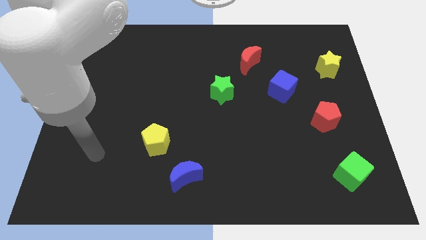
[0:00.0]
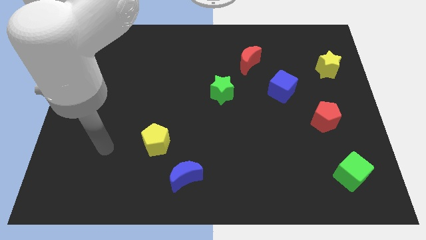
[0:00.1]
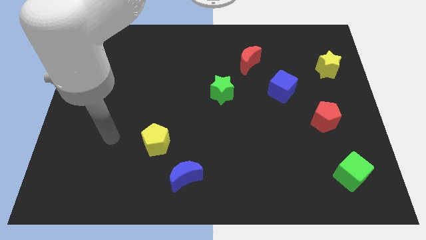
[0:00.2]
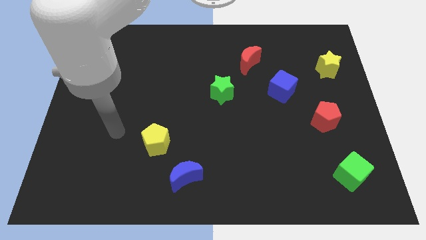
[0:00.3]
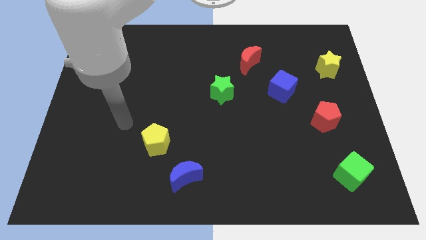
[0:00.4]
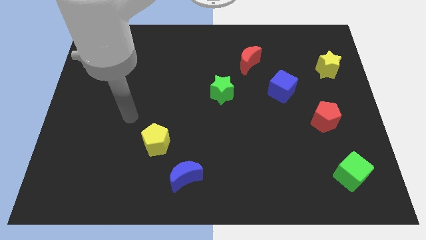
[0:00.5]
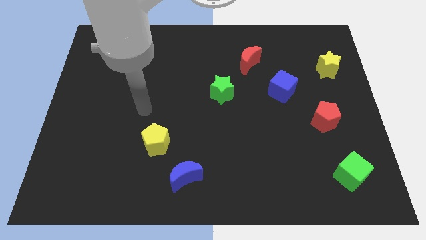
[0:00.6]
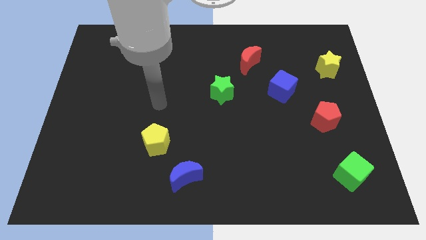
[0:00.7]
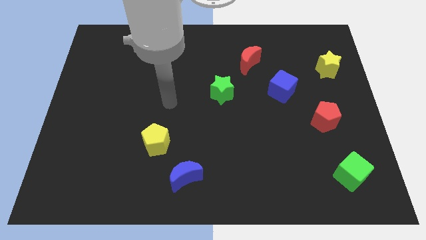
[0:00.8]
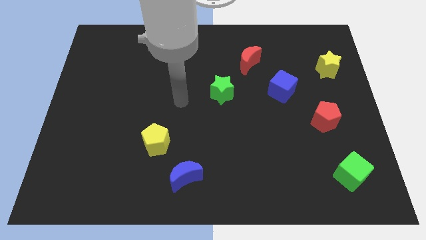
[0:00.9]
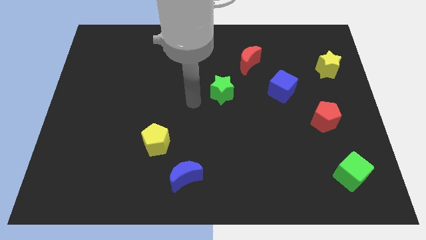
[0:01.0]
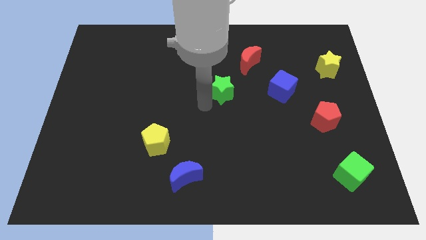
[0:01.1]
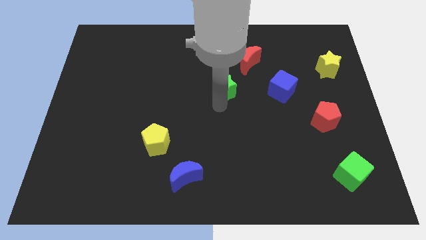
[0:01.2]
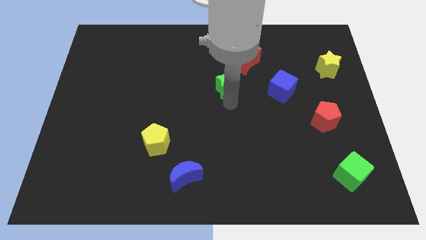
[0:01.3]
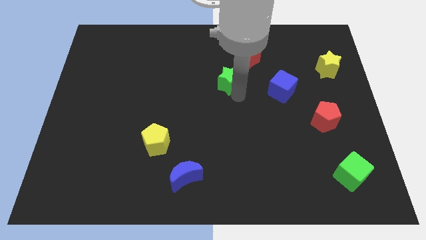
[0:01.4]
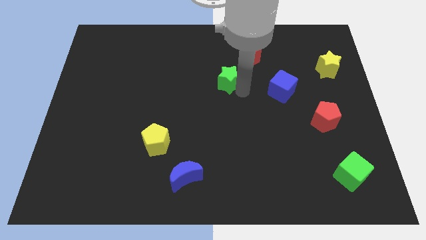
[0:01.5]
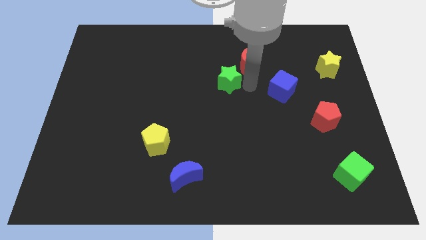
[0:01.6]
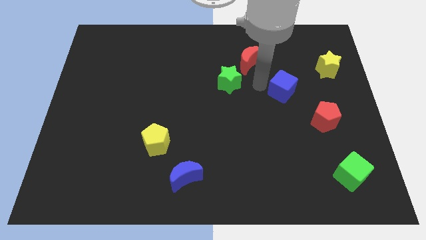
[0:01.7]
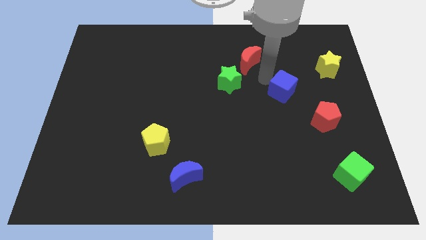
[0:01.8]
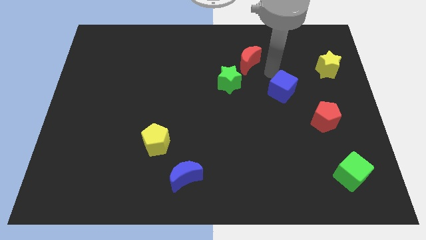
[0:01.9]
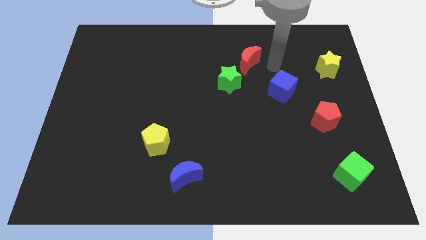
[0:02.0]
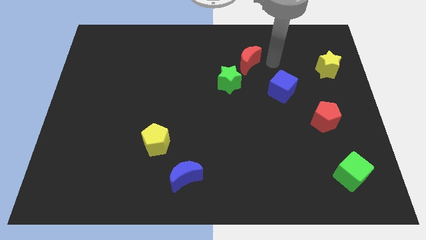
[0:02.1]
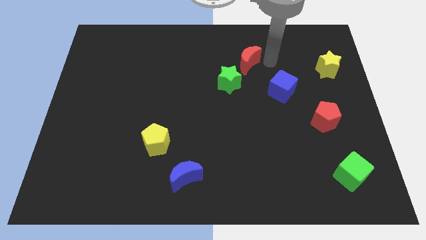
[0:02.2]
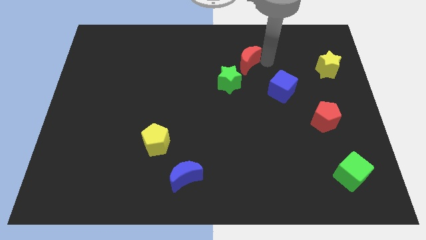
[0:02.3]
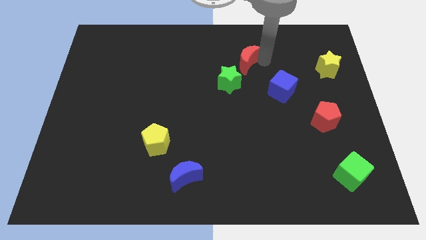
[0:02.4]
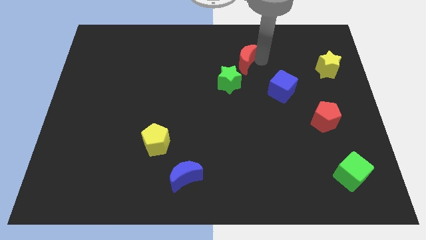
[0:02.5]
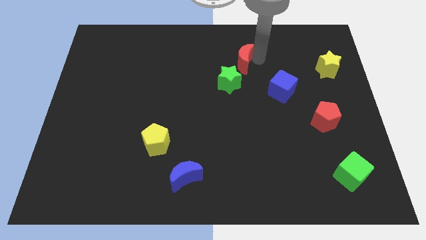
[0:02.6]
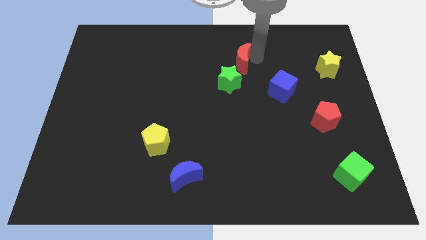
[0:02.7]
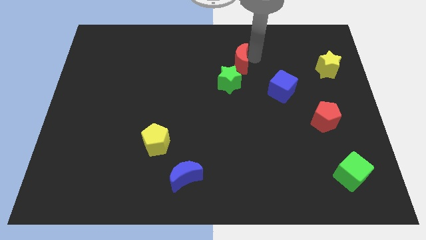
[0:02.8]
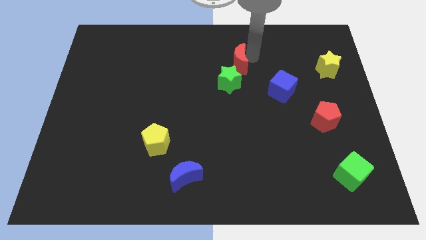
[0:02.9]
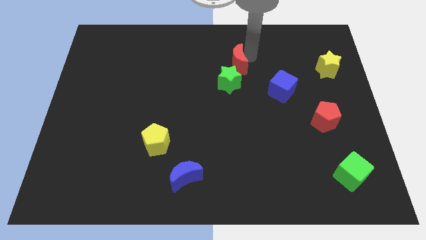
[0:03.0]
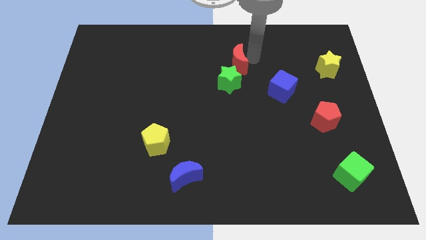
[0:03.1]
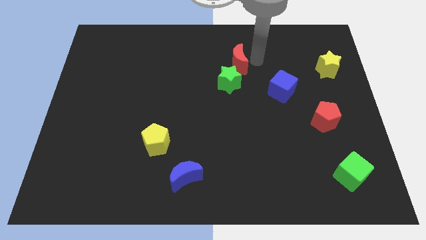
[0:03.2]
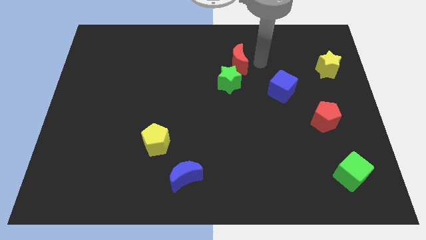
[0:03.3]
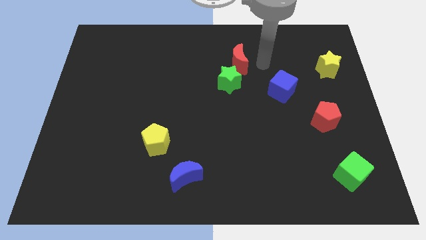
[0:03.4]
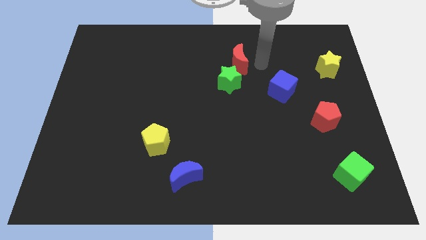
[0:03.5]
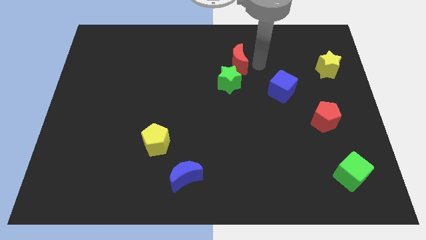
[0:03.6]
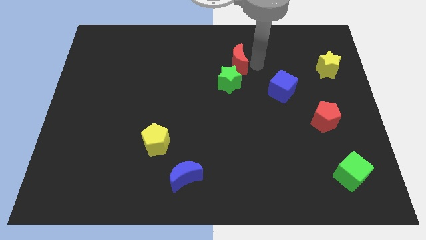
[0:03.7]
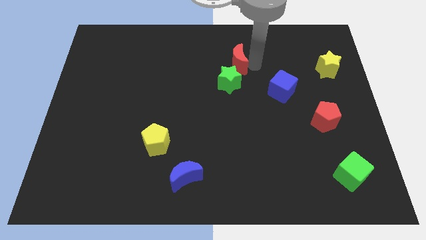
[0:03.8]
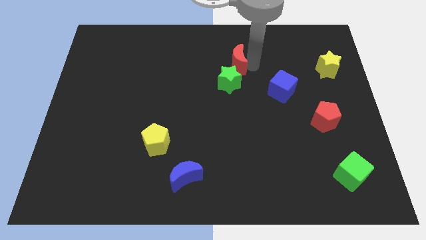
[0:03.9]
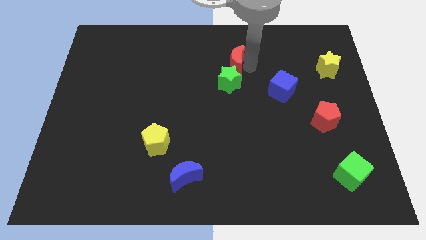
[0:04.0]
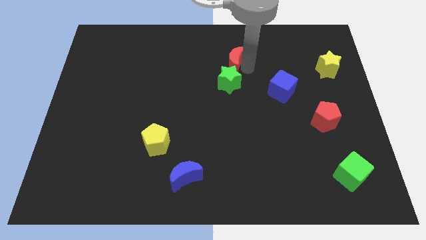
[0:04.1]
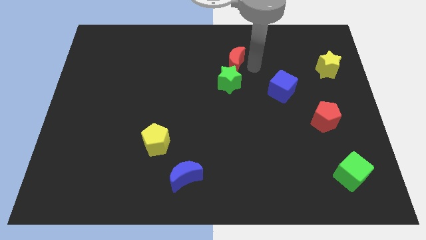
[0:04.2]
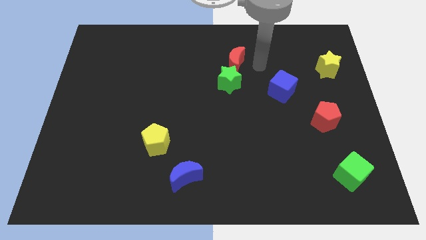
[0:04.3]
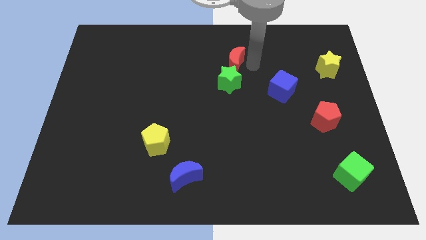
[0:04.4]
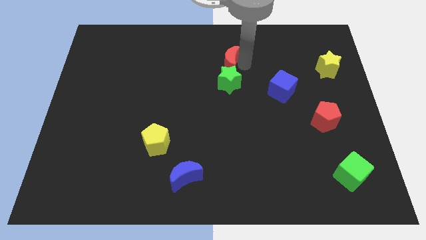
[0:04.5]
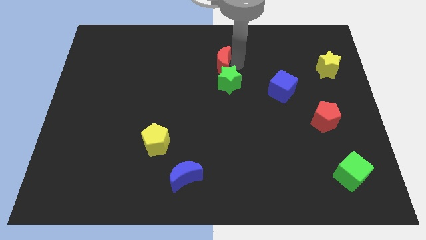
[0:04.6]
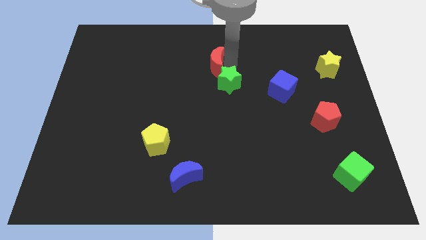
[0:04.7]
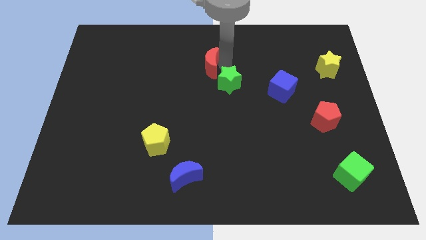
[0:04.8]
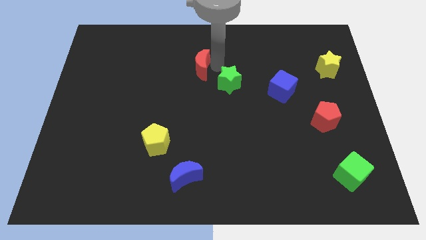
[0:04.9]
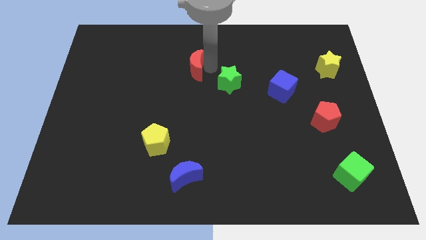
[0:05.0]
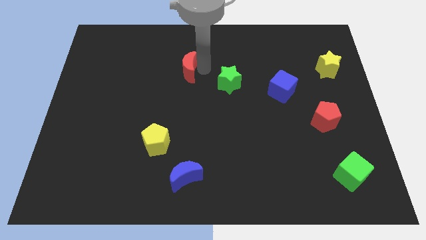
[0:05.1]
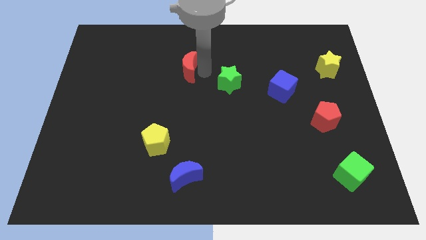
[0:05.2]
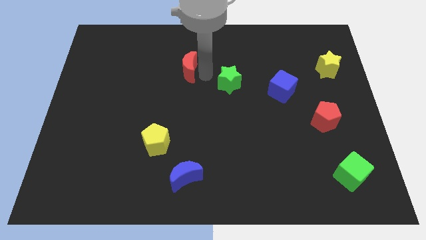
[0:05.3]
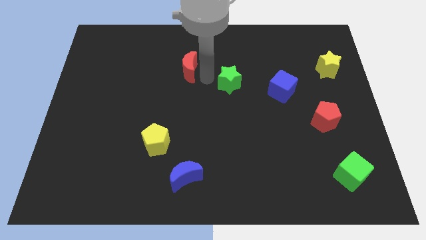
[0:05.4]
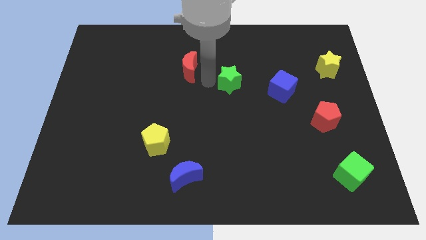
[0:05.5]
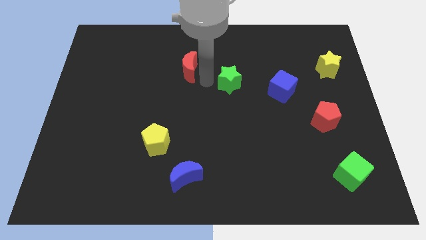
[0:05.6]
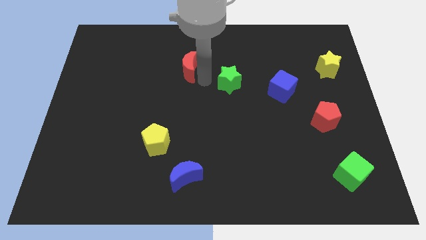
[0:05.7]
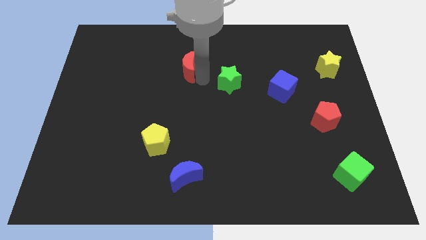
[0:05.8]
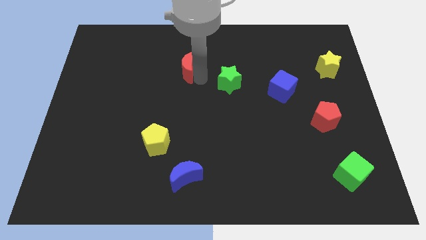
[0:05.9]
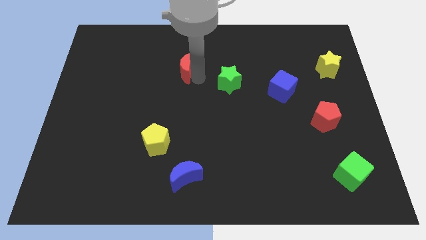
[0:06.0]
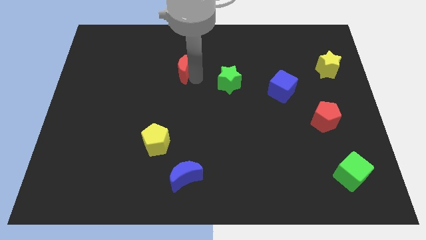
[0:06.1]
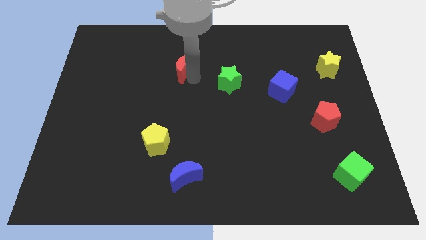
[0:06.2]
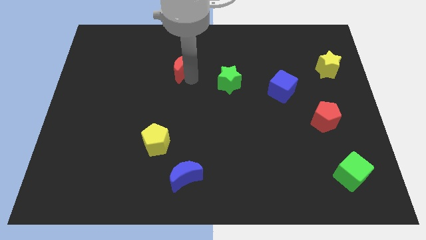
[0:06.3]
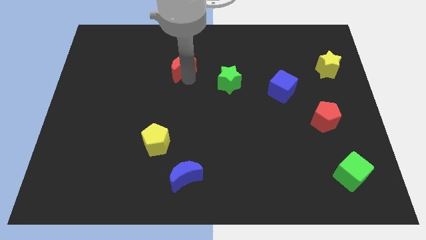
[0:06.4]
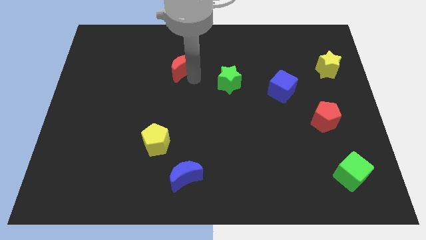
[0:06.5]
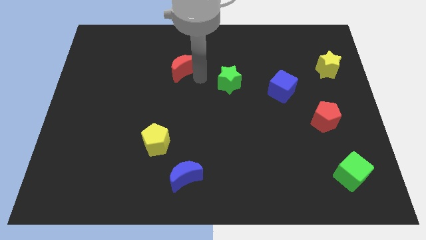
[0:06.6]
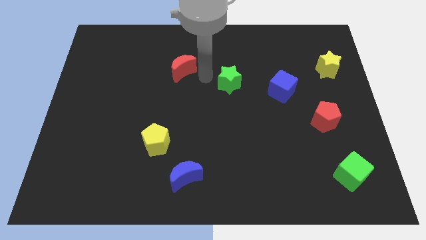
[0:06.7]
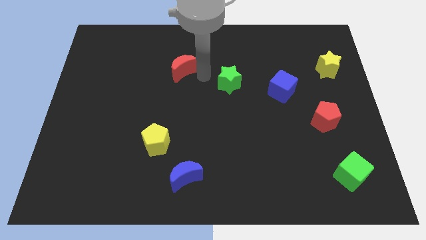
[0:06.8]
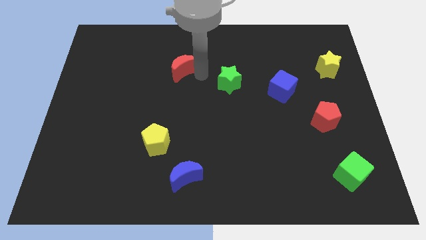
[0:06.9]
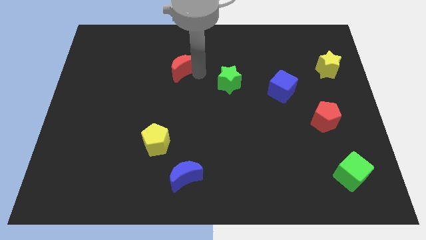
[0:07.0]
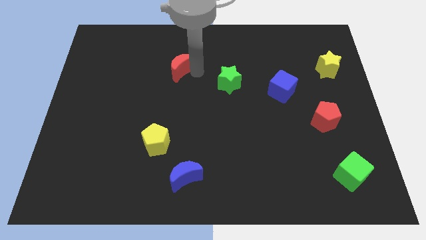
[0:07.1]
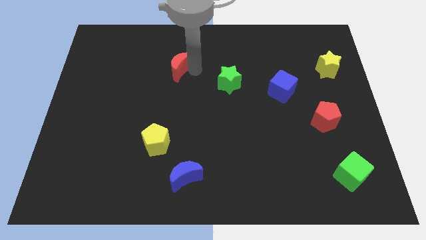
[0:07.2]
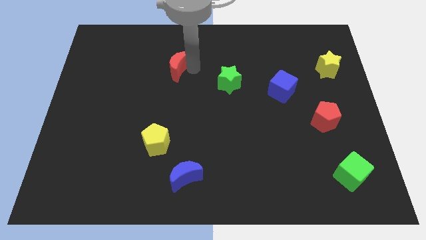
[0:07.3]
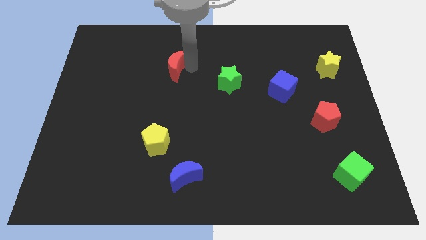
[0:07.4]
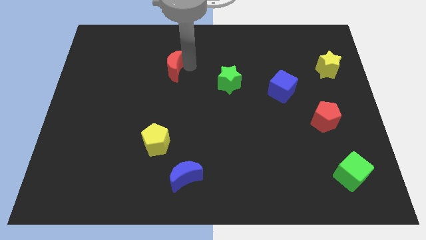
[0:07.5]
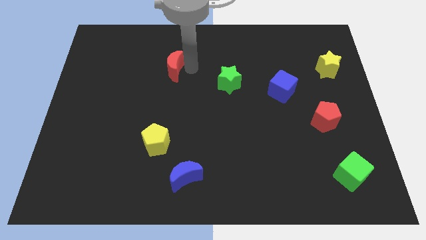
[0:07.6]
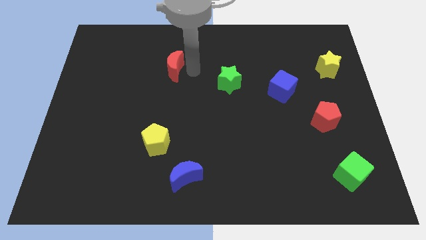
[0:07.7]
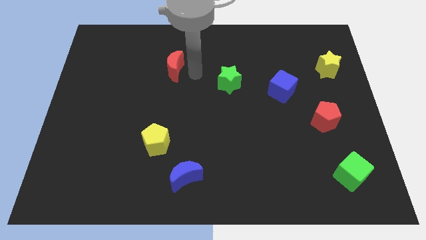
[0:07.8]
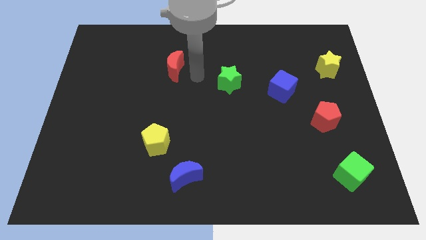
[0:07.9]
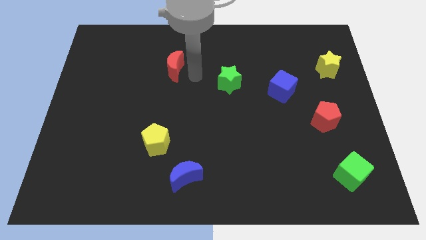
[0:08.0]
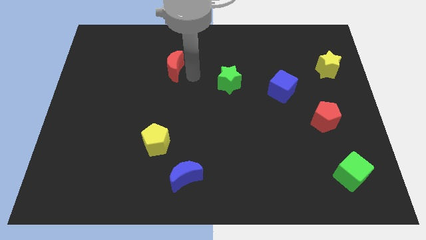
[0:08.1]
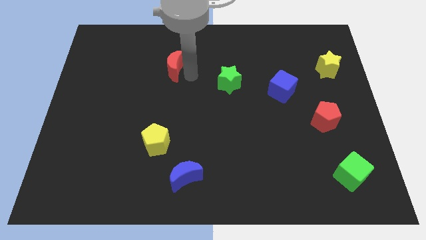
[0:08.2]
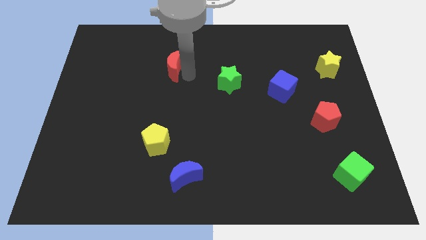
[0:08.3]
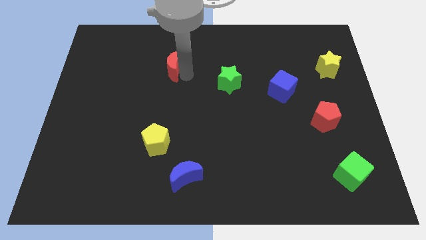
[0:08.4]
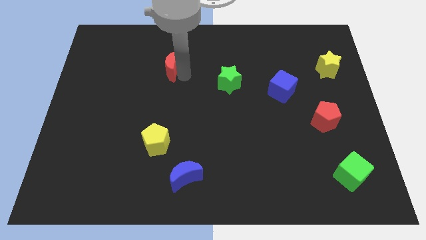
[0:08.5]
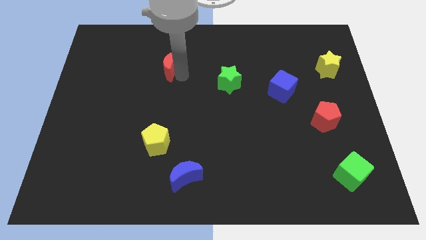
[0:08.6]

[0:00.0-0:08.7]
slide the red moon left
